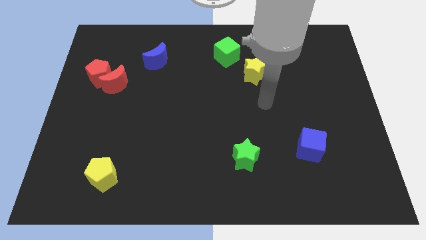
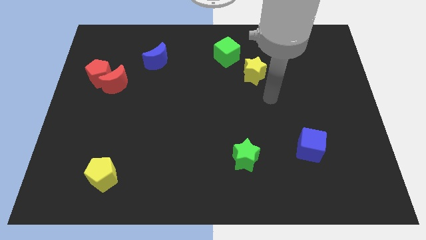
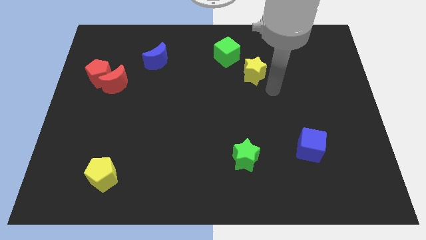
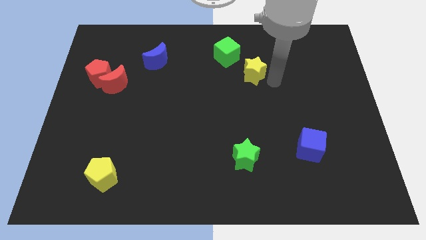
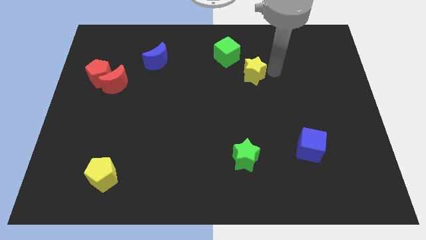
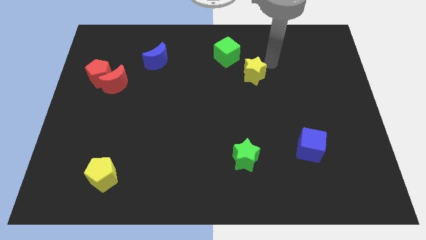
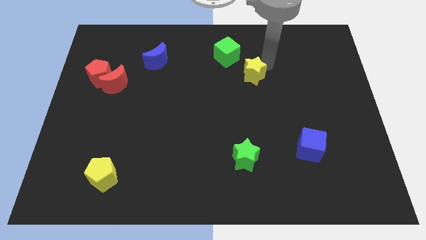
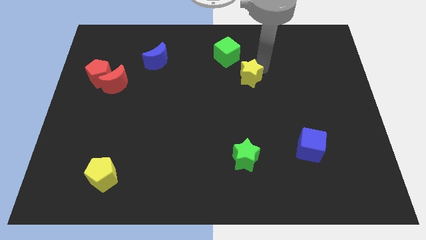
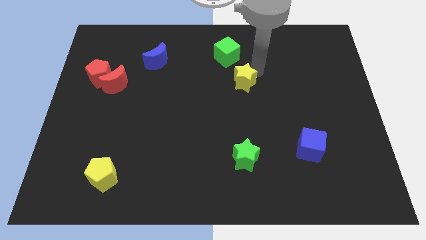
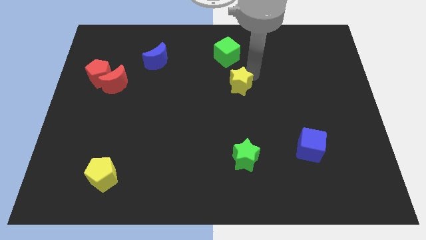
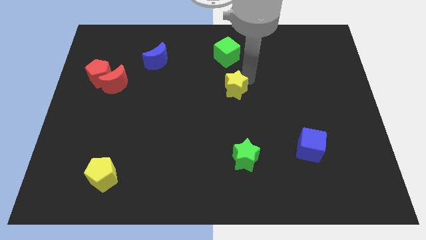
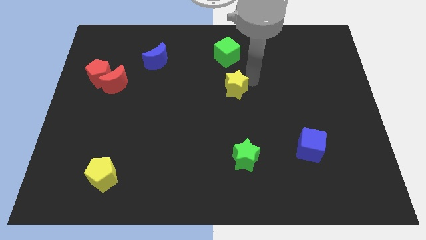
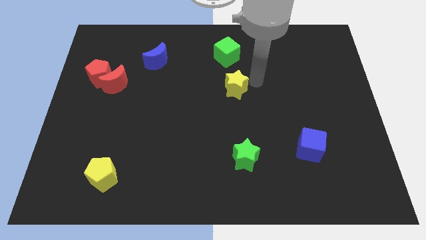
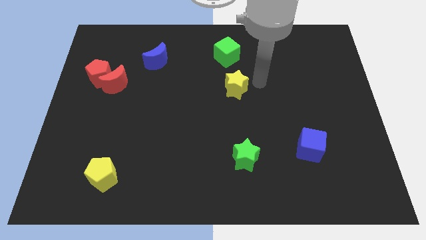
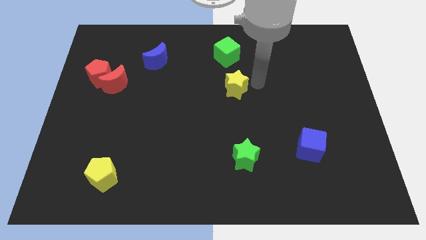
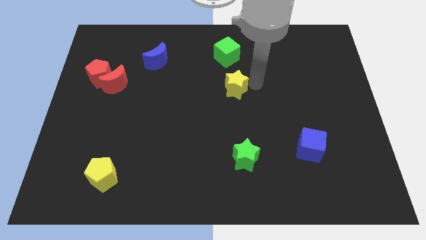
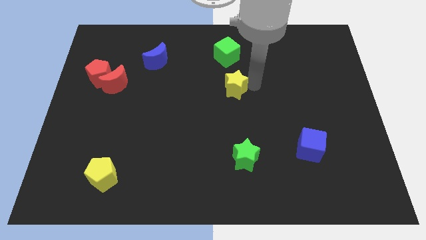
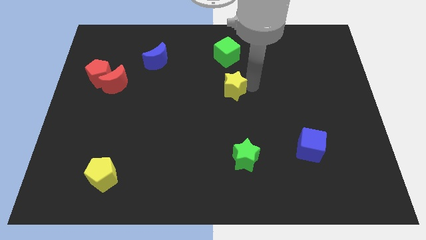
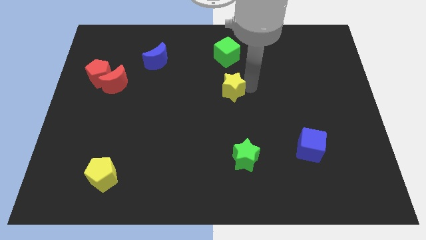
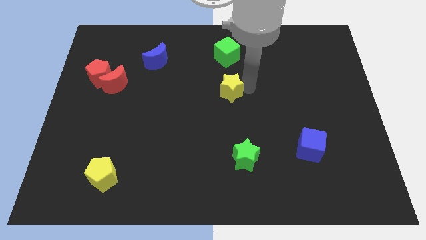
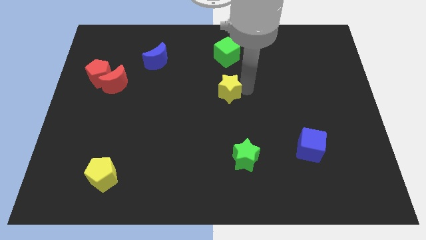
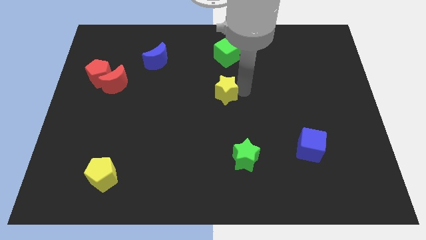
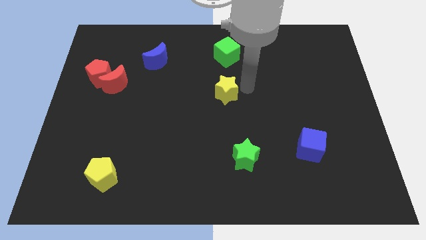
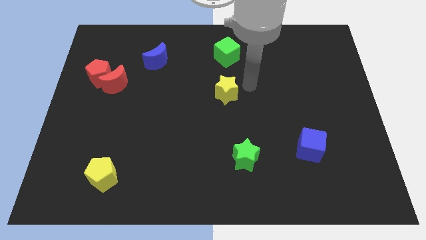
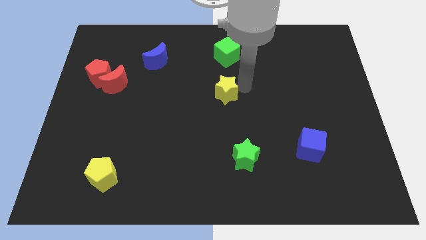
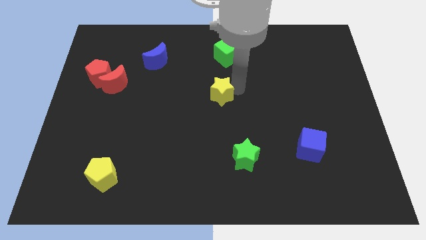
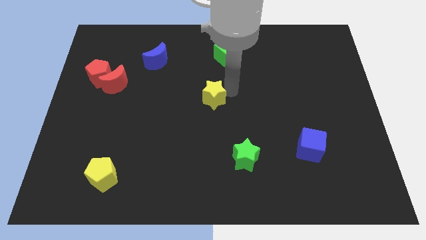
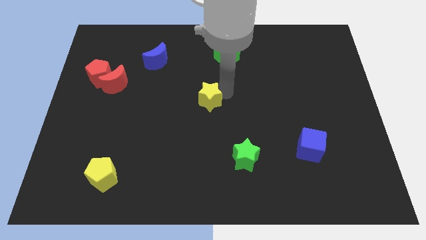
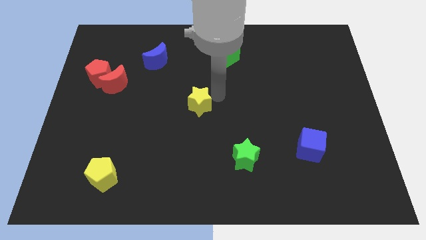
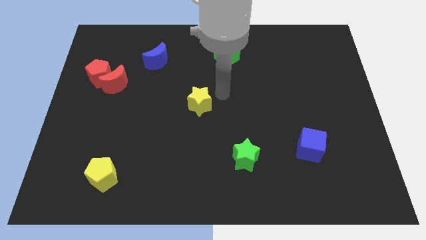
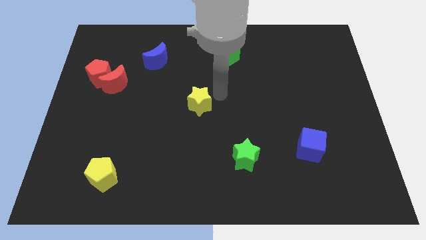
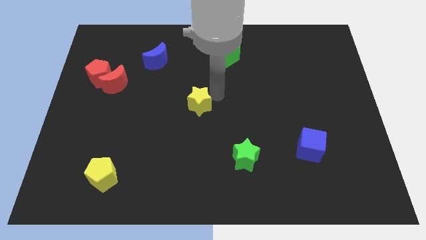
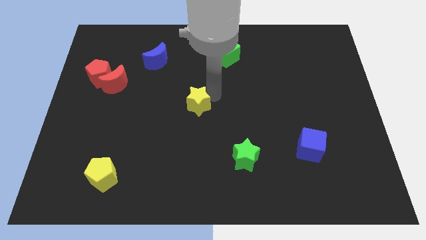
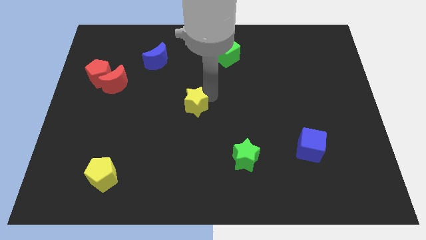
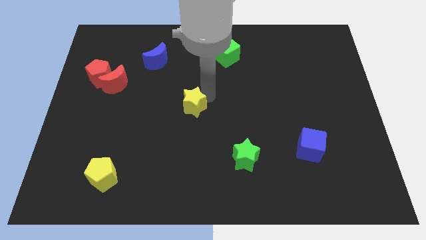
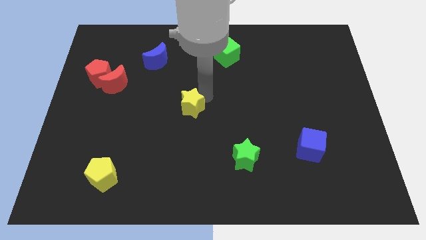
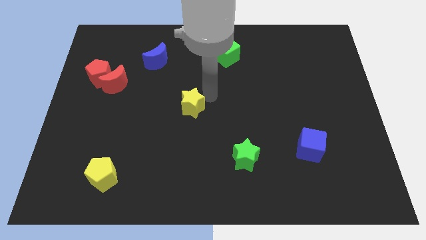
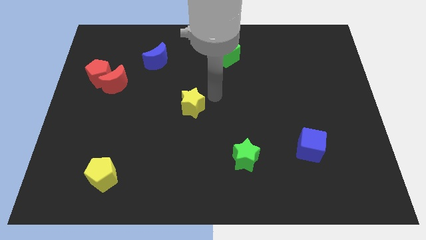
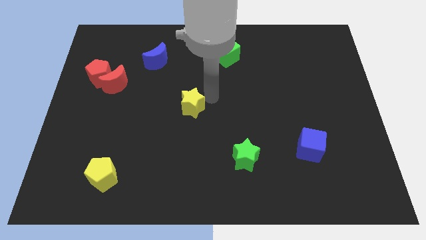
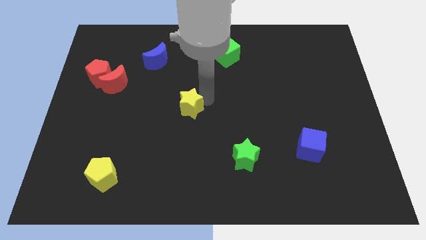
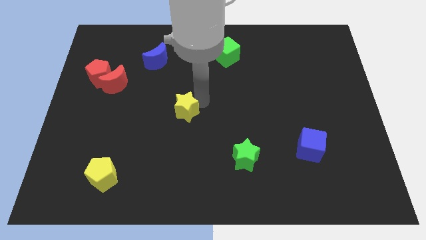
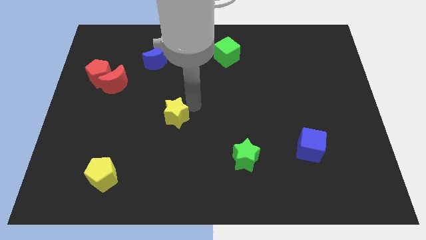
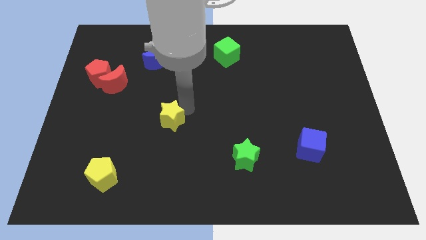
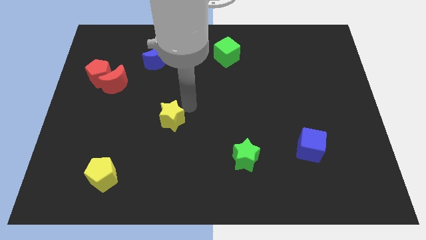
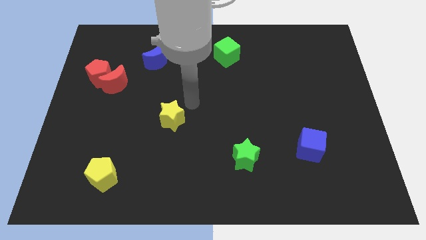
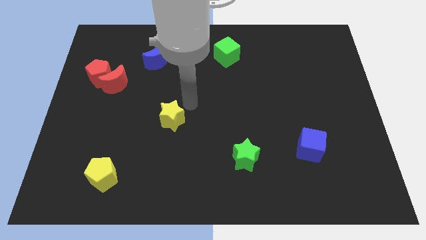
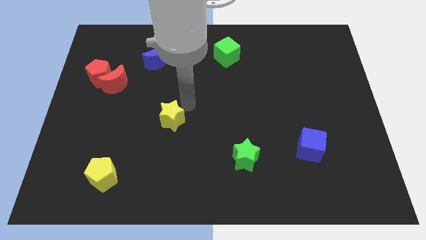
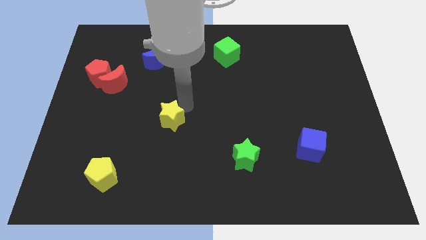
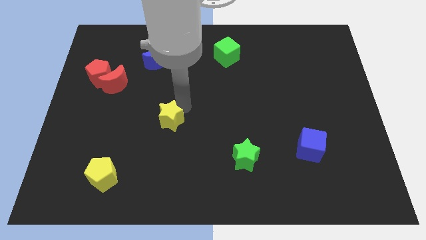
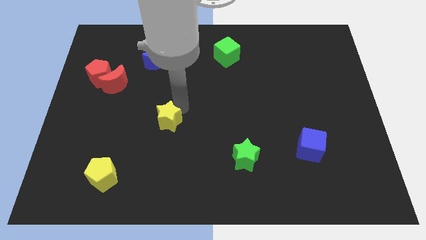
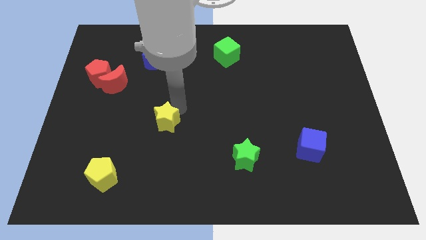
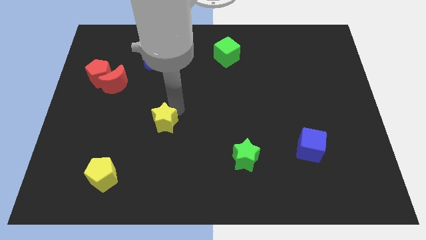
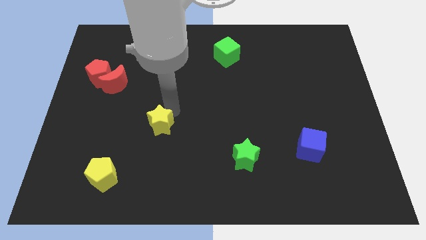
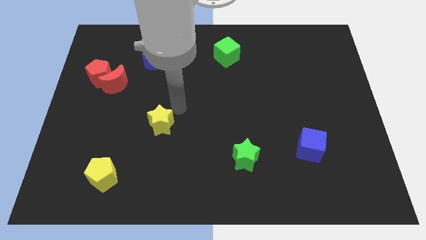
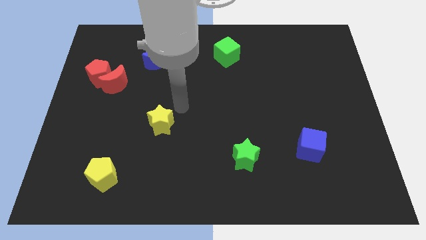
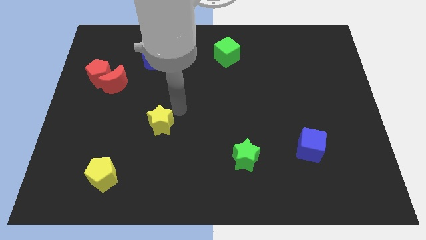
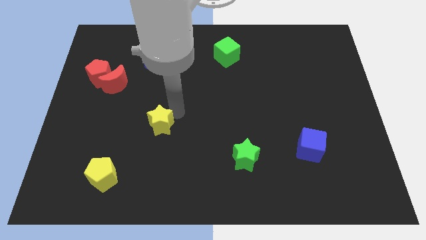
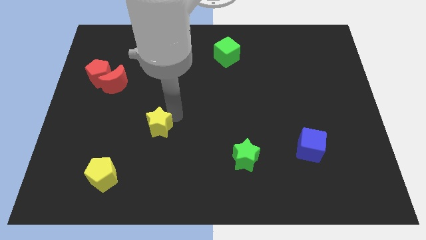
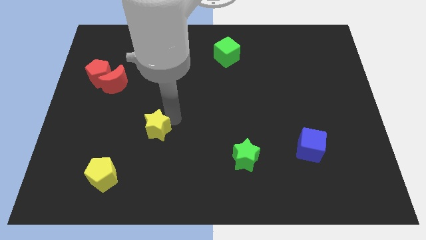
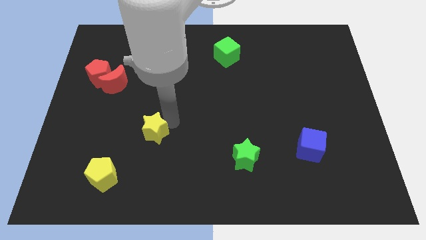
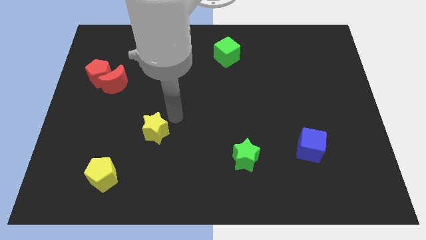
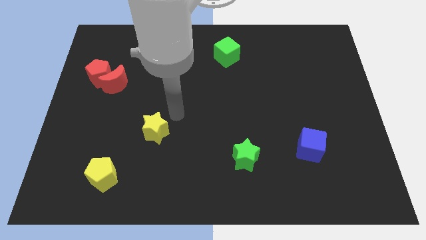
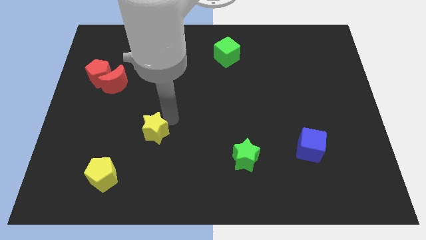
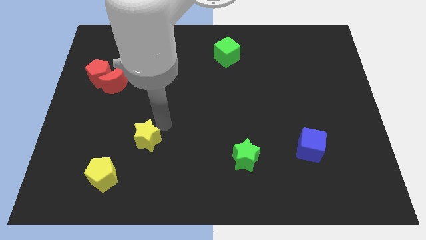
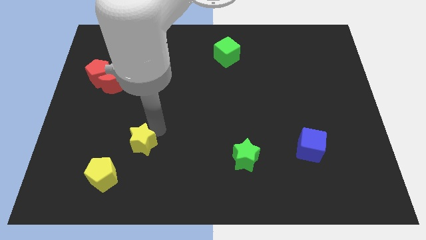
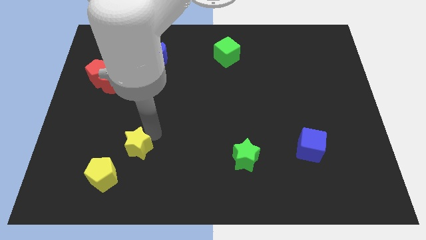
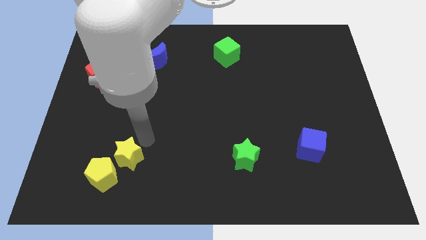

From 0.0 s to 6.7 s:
push the yellow star to the yellow pentagon

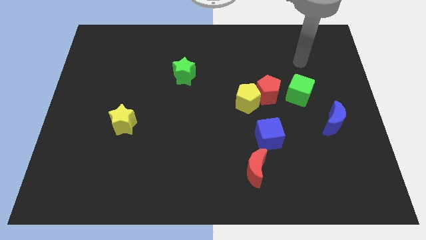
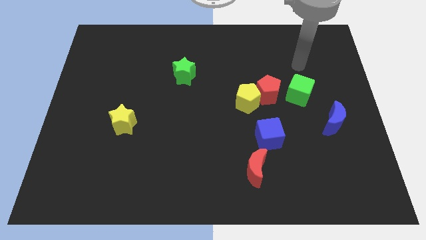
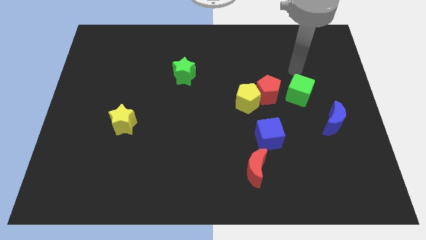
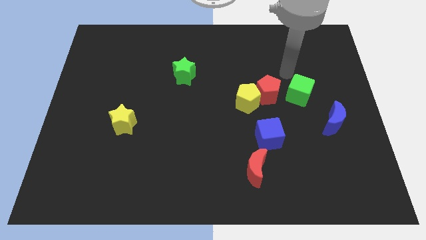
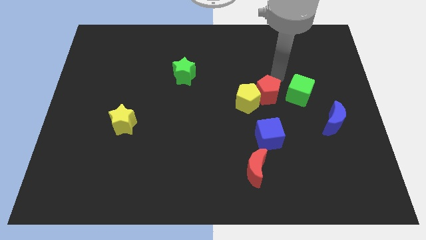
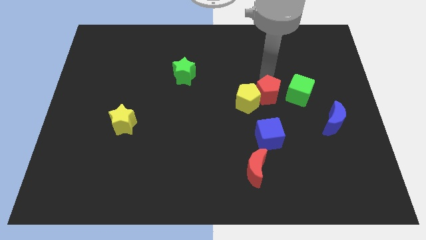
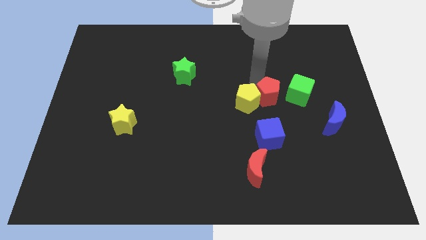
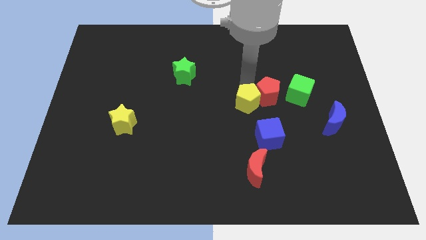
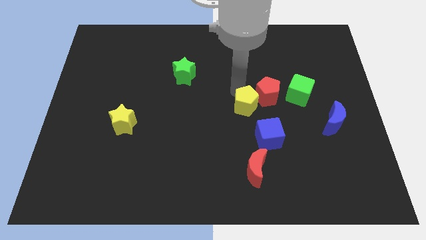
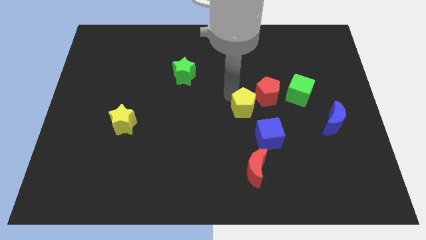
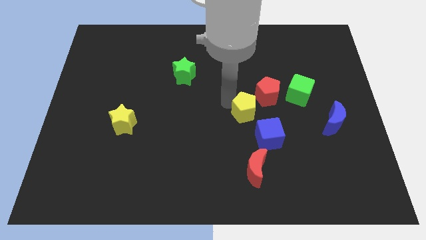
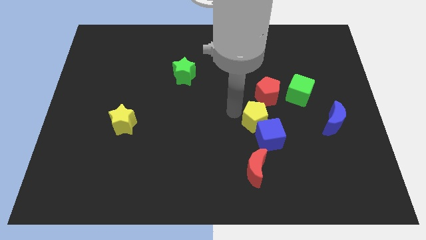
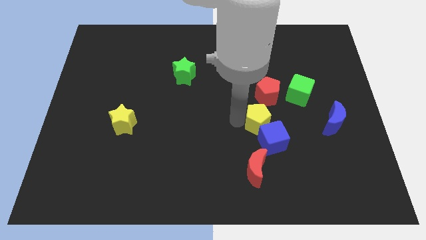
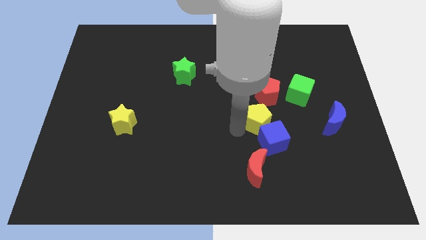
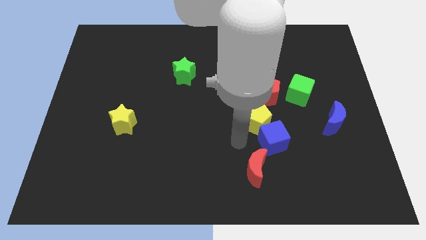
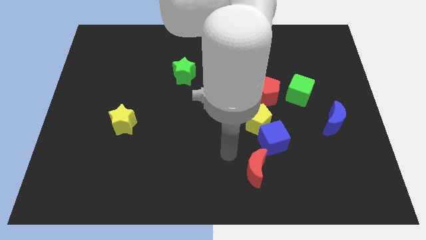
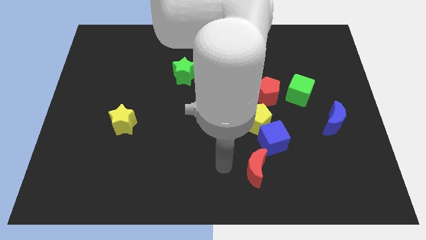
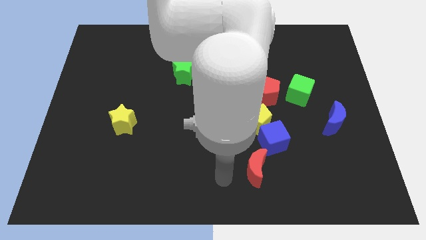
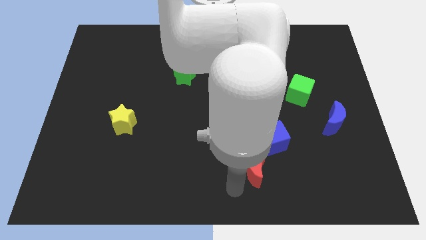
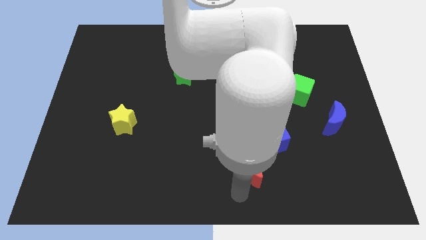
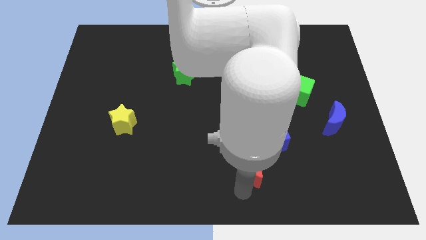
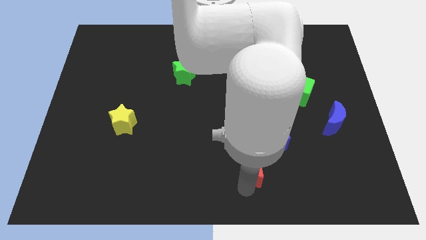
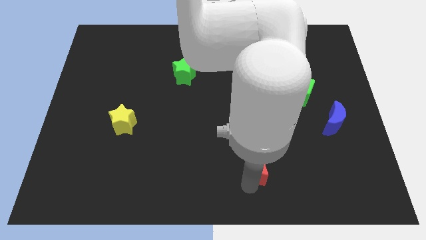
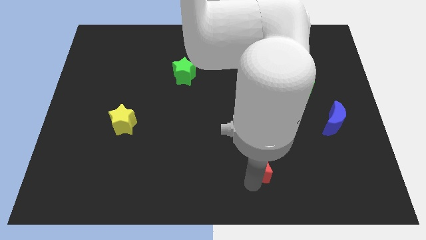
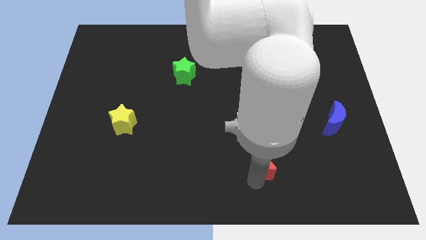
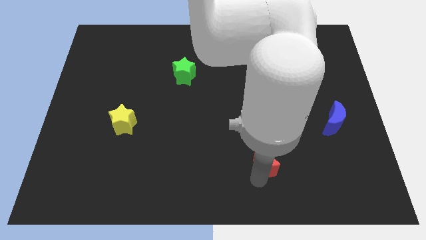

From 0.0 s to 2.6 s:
put the red moon towards the blue cube
